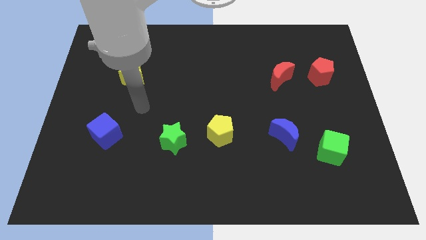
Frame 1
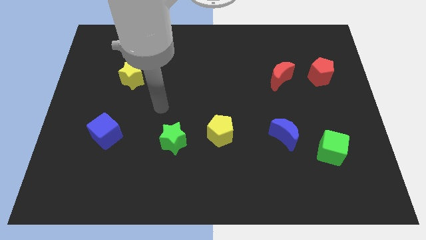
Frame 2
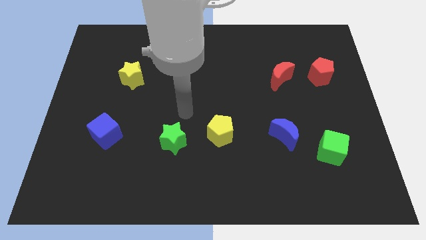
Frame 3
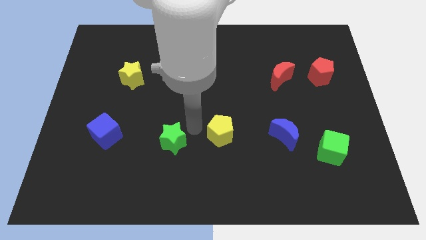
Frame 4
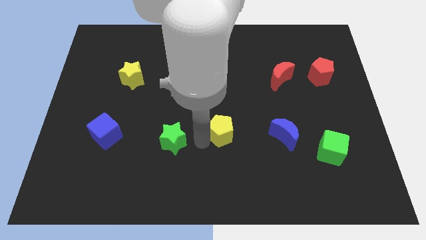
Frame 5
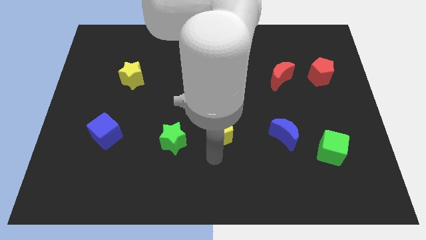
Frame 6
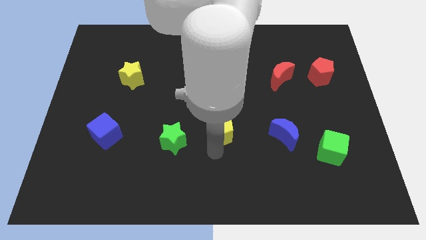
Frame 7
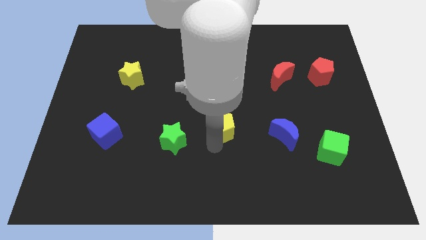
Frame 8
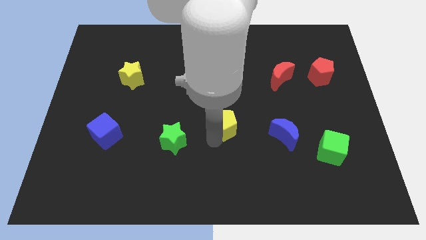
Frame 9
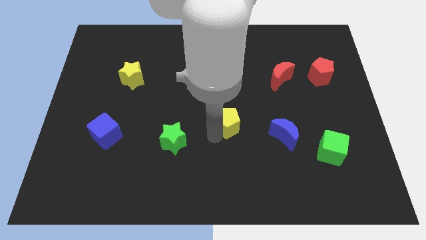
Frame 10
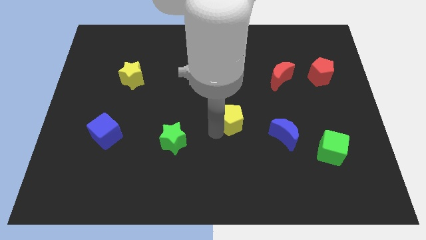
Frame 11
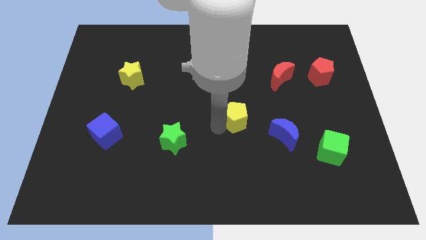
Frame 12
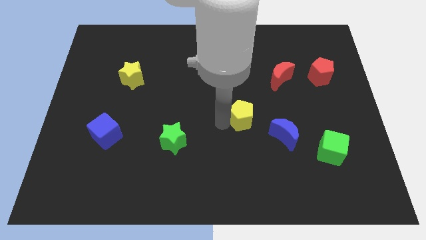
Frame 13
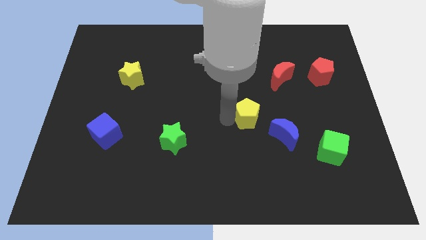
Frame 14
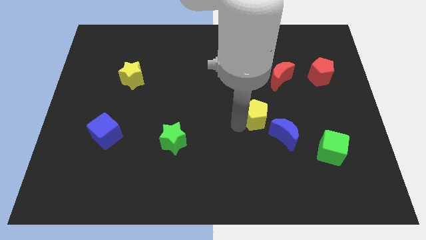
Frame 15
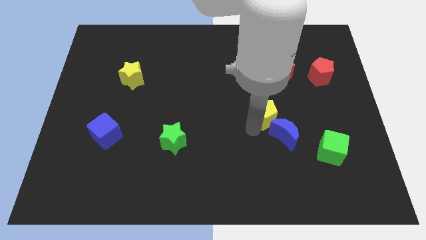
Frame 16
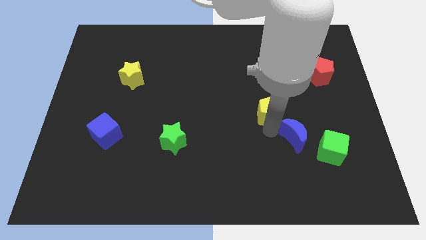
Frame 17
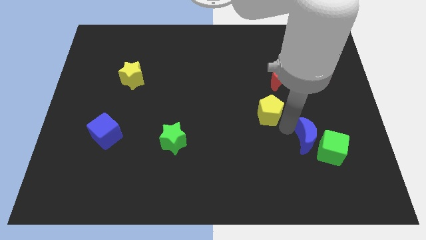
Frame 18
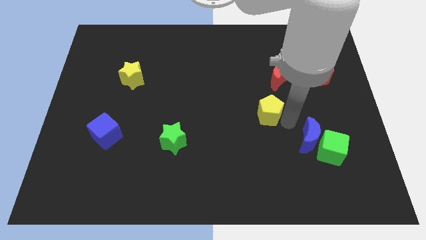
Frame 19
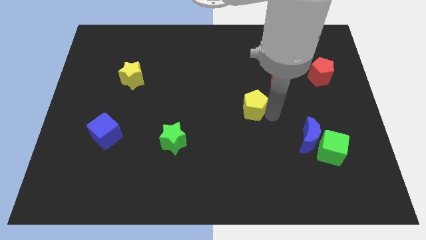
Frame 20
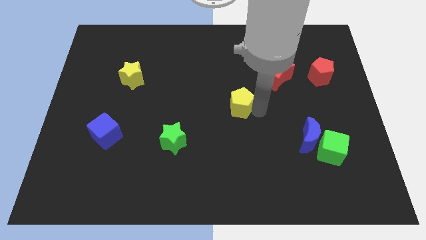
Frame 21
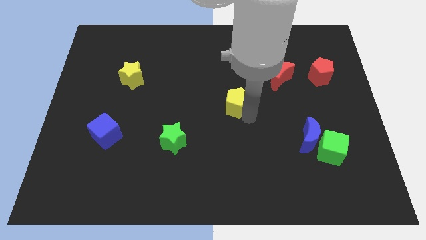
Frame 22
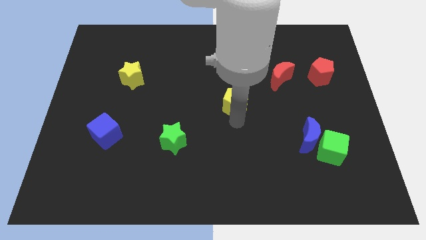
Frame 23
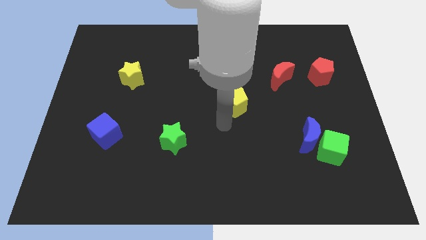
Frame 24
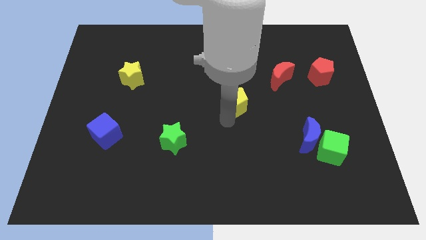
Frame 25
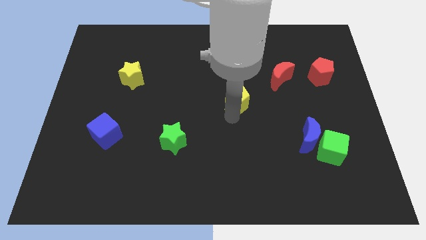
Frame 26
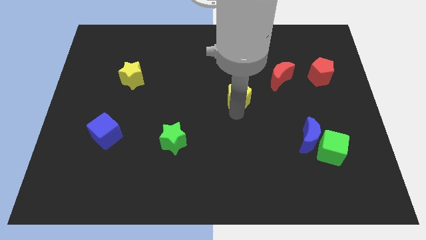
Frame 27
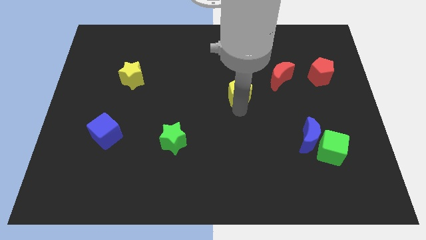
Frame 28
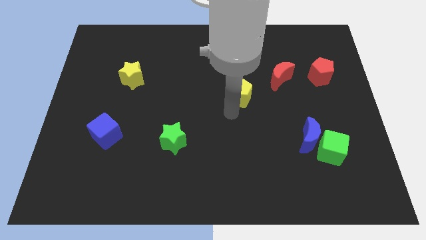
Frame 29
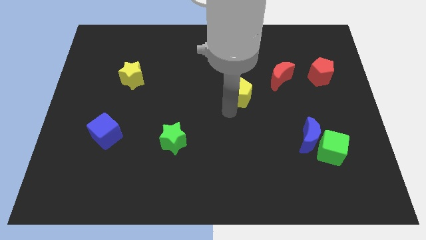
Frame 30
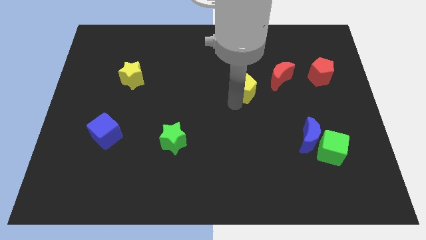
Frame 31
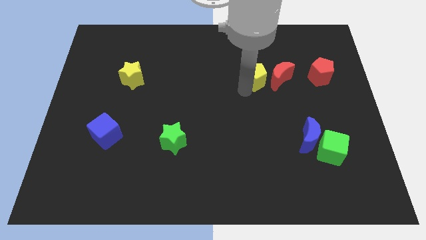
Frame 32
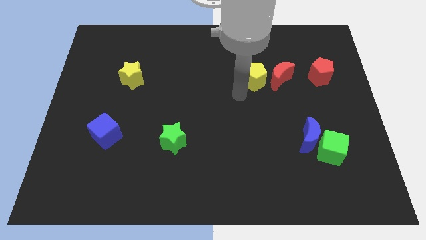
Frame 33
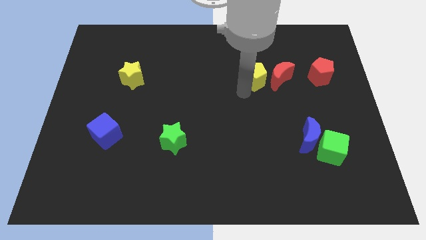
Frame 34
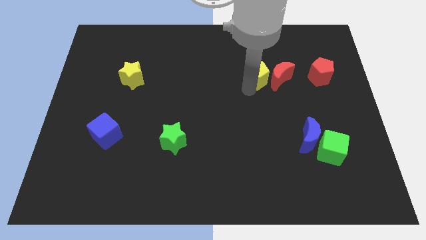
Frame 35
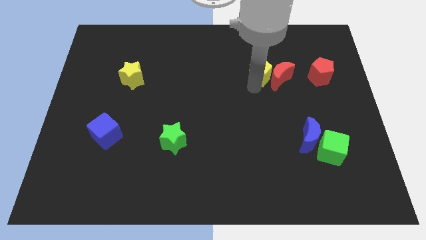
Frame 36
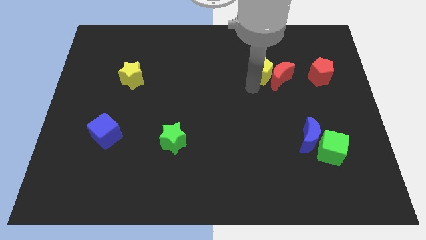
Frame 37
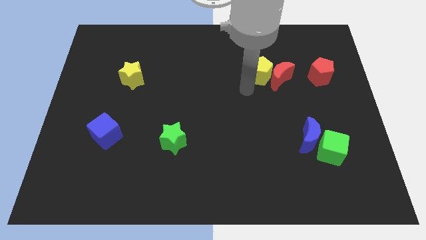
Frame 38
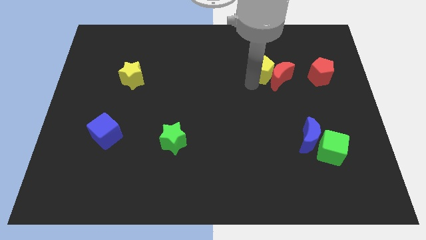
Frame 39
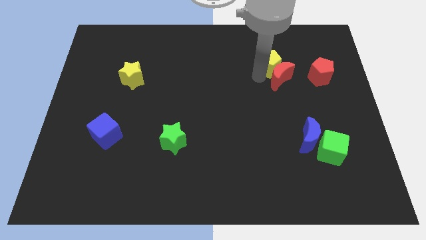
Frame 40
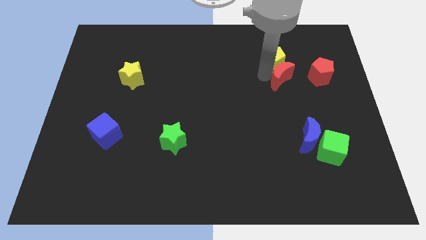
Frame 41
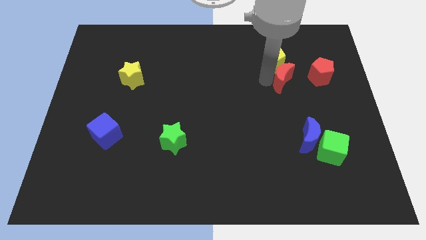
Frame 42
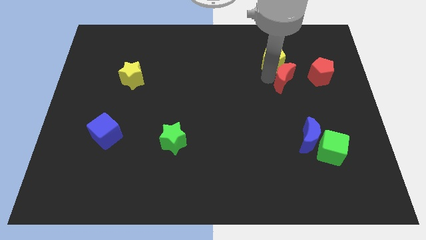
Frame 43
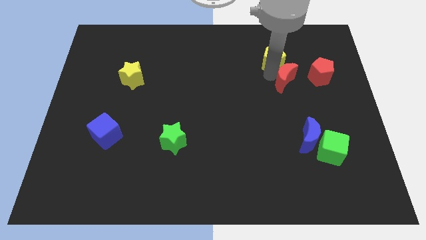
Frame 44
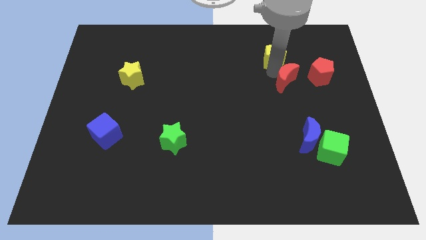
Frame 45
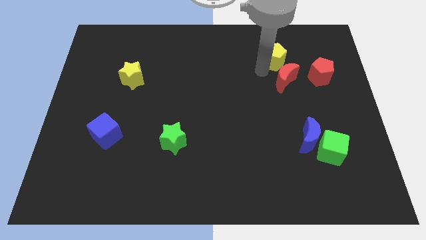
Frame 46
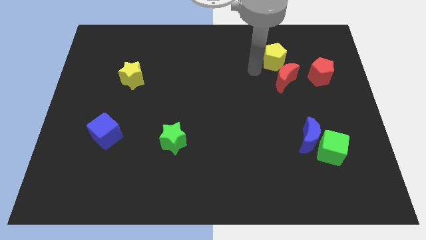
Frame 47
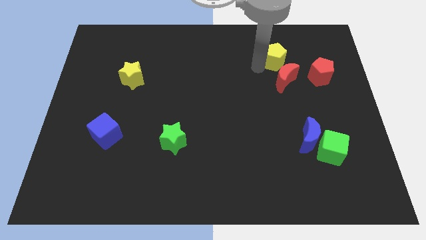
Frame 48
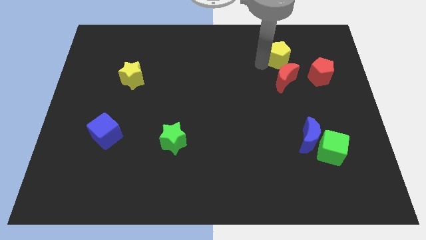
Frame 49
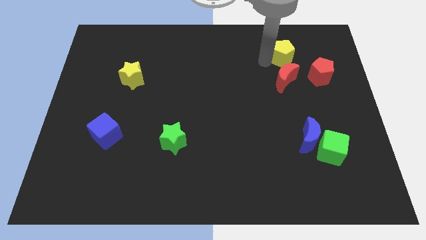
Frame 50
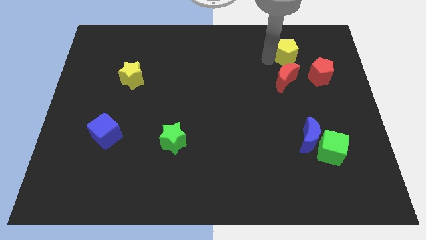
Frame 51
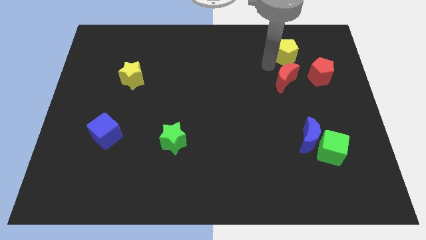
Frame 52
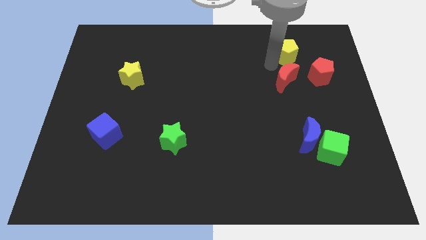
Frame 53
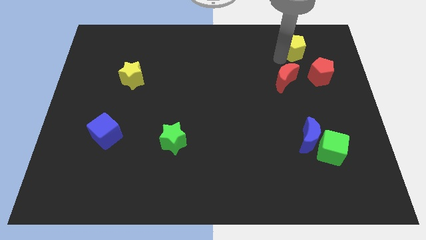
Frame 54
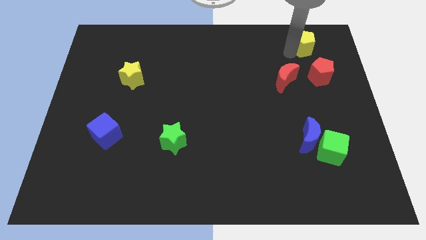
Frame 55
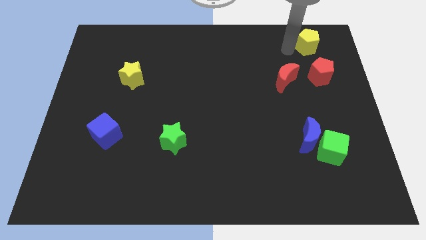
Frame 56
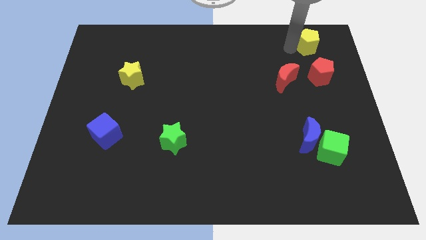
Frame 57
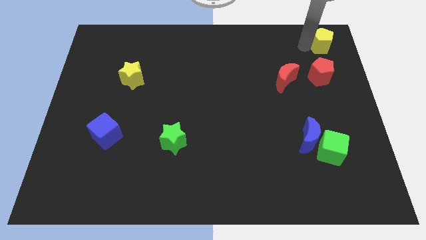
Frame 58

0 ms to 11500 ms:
move the yellow pentagon to the top right

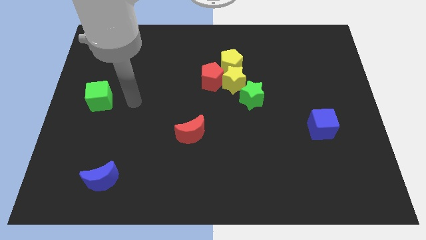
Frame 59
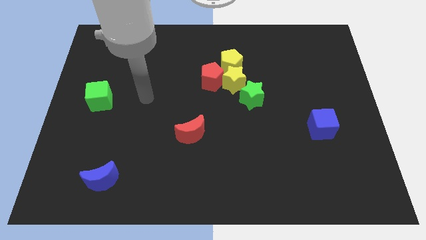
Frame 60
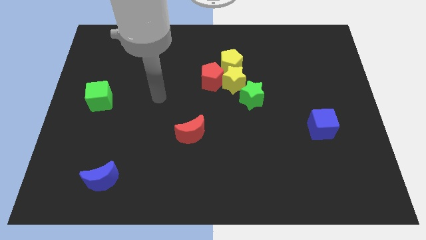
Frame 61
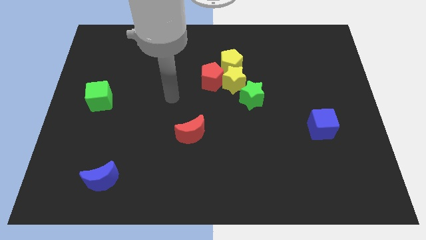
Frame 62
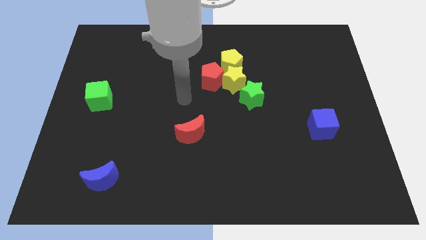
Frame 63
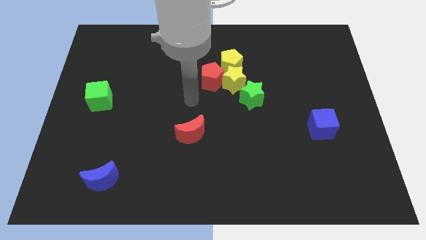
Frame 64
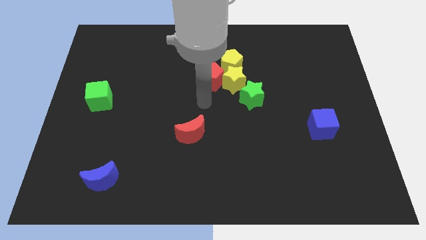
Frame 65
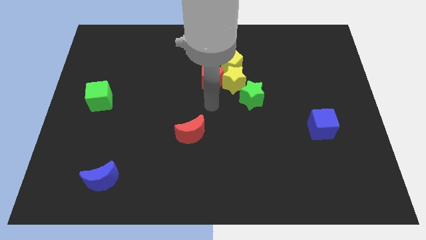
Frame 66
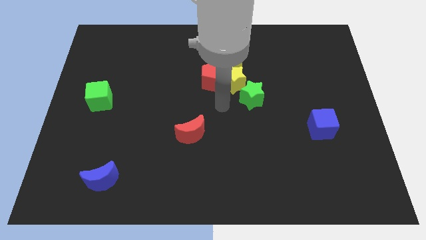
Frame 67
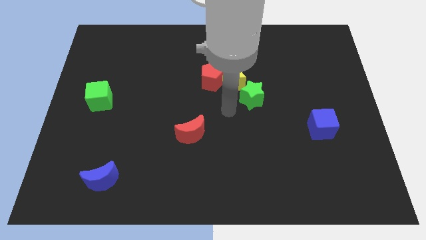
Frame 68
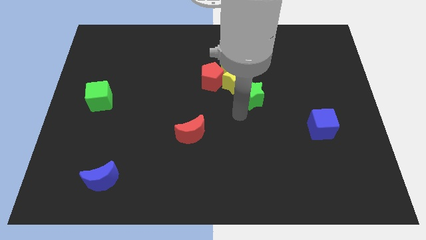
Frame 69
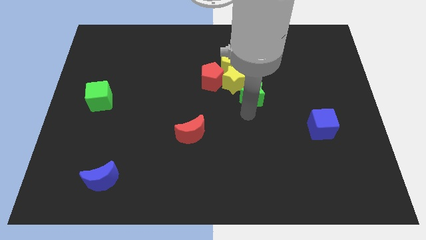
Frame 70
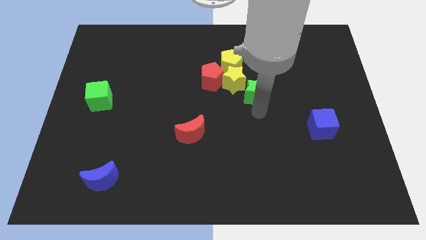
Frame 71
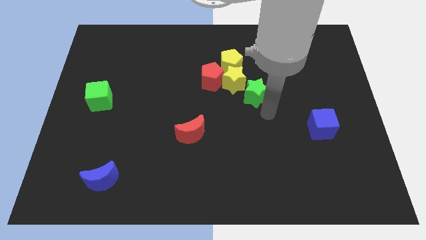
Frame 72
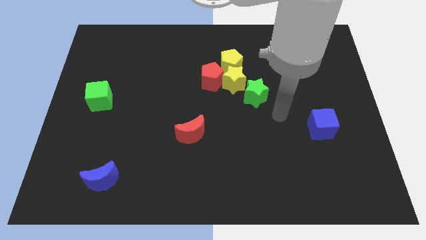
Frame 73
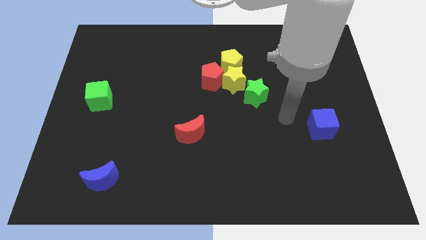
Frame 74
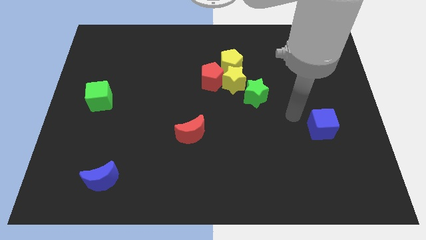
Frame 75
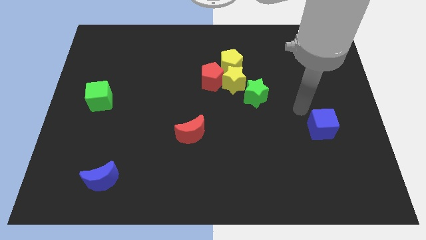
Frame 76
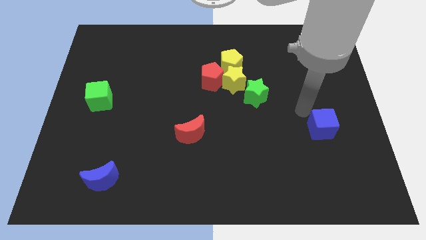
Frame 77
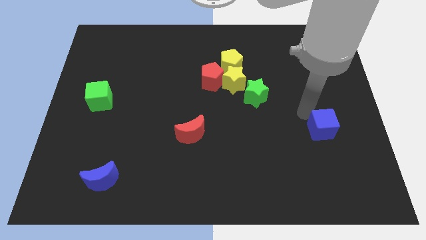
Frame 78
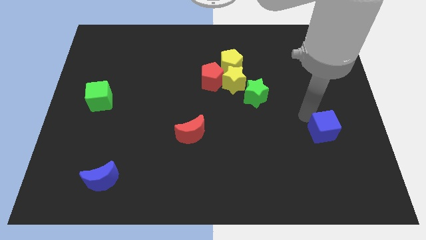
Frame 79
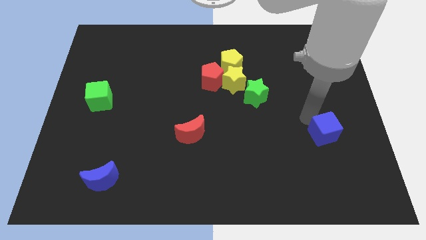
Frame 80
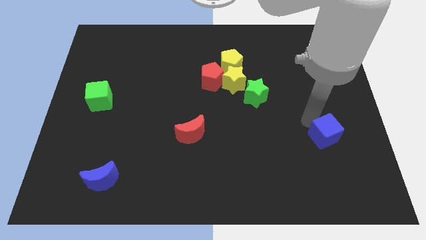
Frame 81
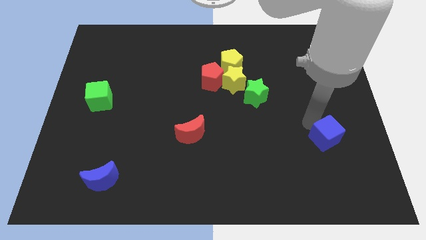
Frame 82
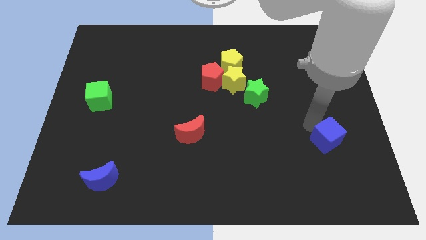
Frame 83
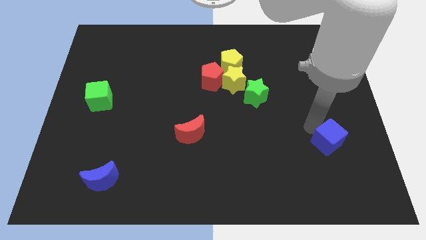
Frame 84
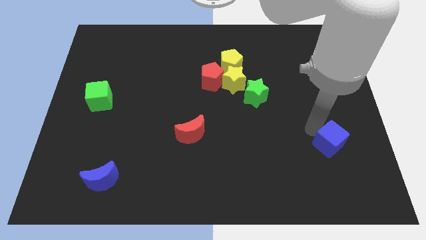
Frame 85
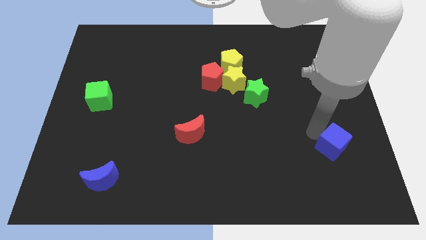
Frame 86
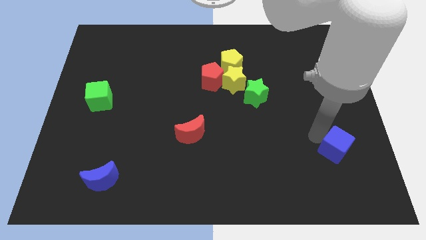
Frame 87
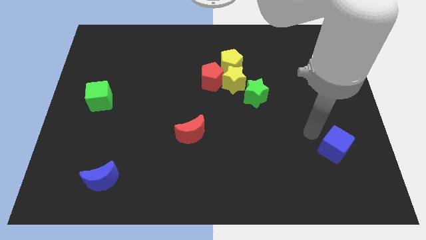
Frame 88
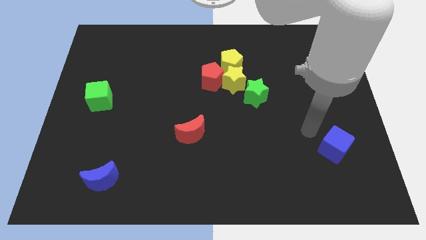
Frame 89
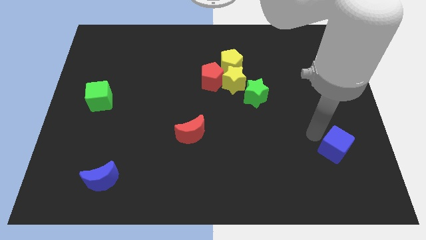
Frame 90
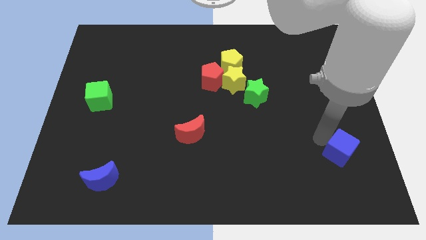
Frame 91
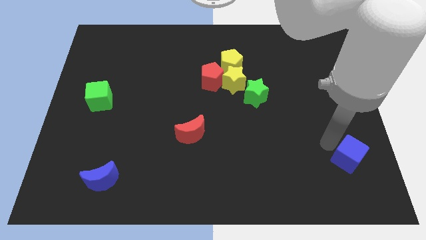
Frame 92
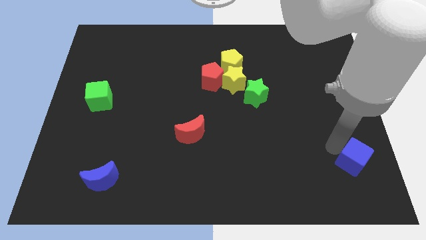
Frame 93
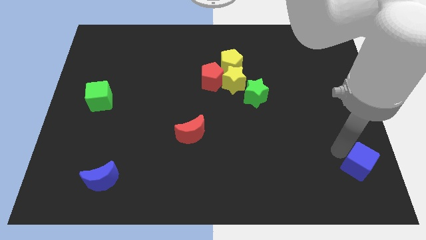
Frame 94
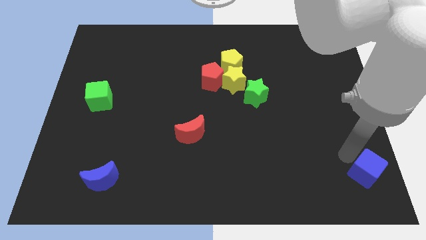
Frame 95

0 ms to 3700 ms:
put the blue cube to the lower right corner
